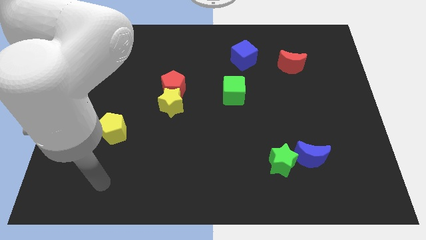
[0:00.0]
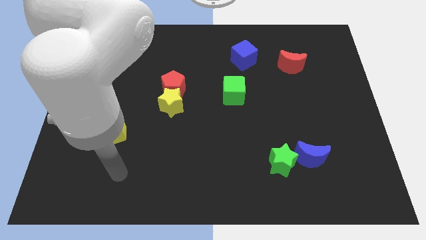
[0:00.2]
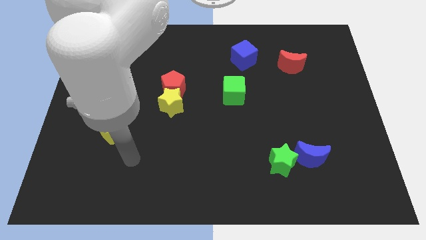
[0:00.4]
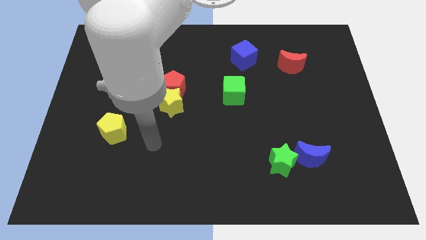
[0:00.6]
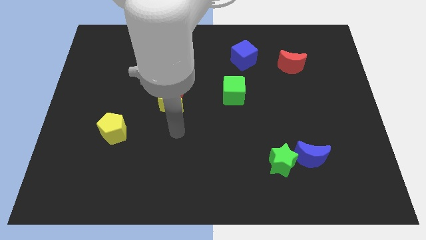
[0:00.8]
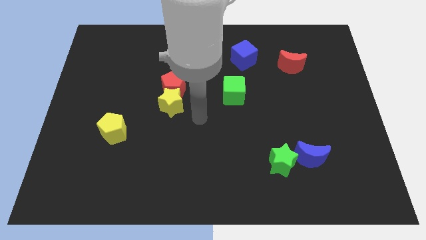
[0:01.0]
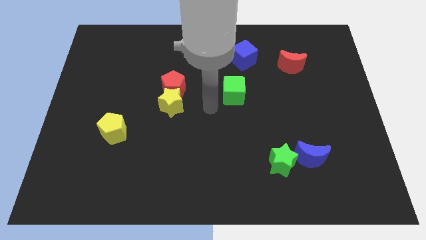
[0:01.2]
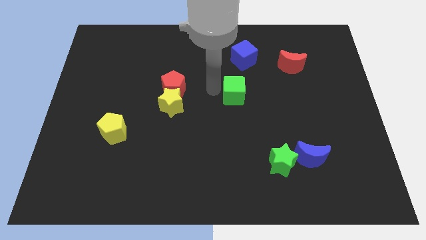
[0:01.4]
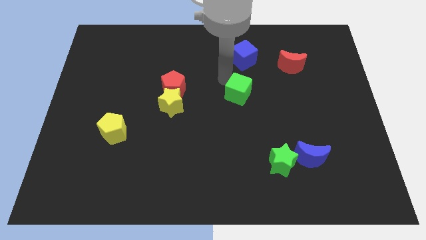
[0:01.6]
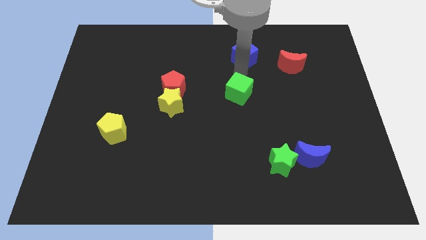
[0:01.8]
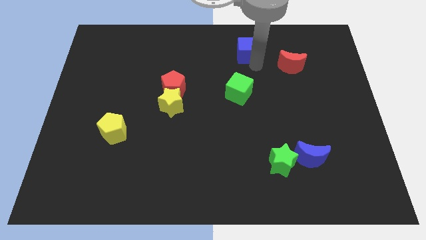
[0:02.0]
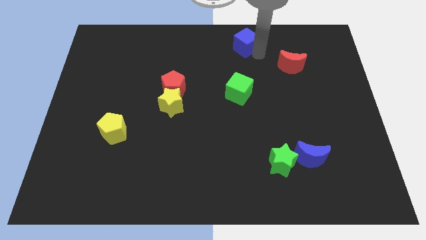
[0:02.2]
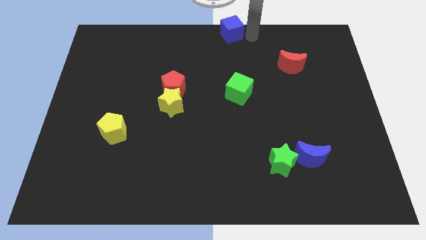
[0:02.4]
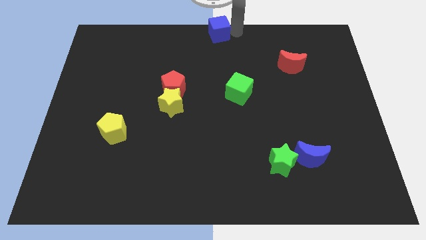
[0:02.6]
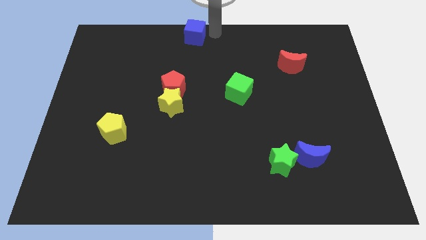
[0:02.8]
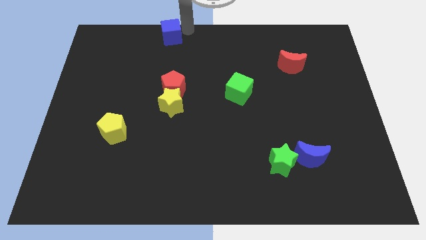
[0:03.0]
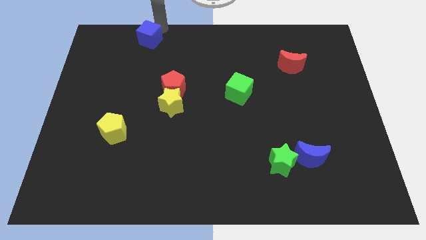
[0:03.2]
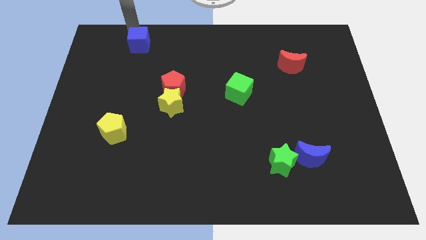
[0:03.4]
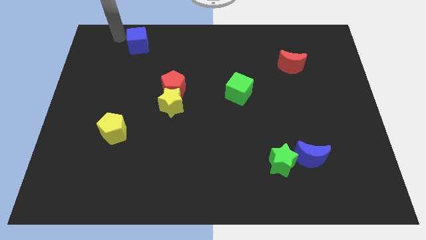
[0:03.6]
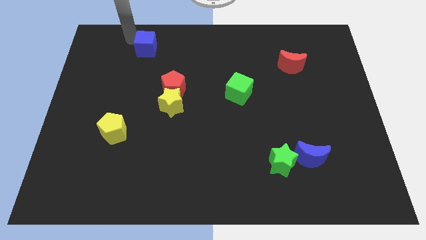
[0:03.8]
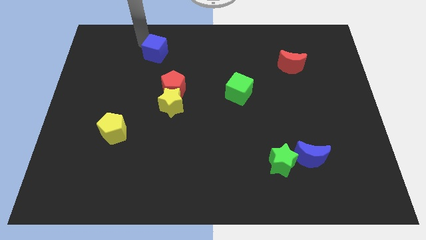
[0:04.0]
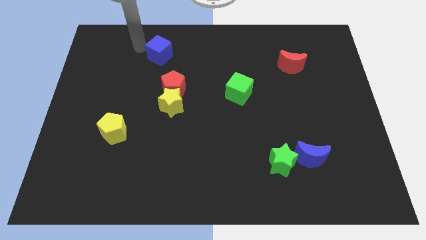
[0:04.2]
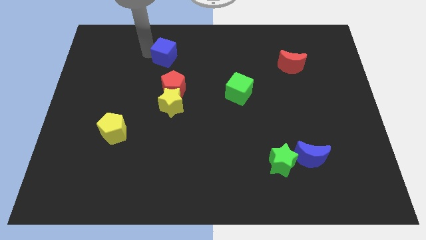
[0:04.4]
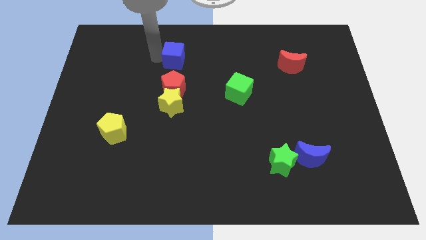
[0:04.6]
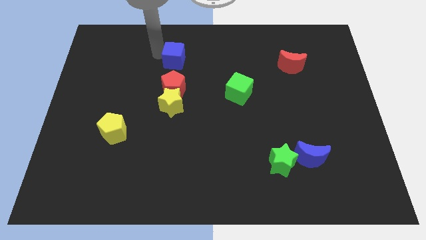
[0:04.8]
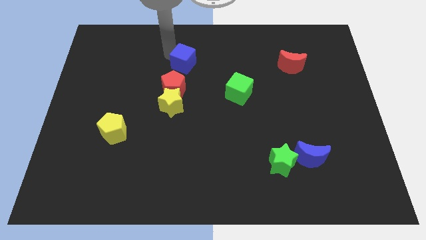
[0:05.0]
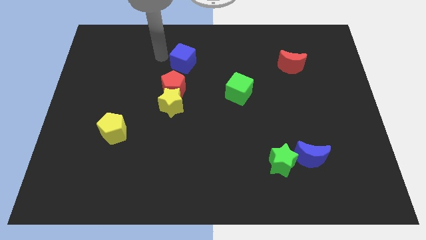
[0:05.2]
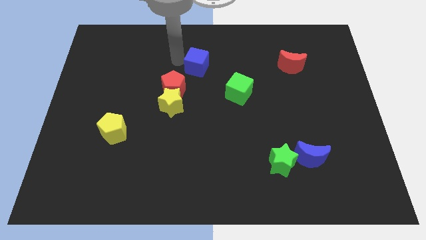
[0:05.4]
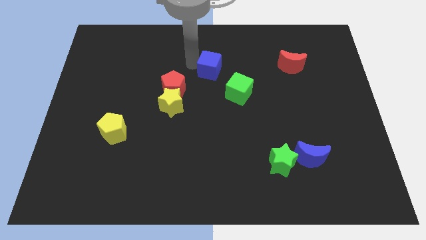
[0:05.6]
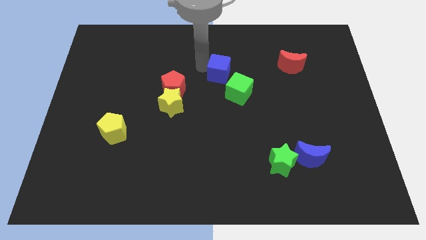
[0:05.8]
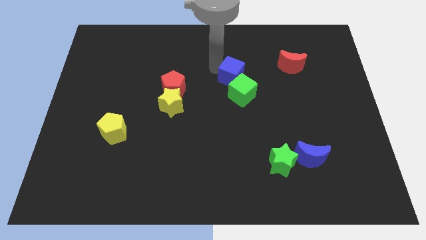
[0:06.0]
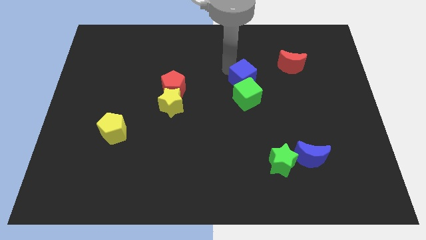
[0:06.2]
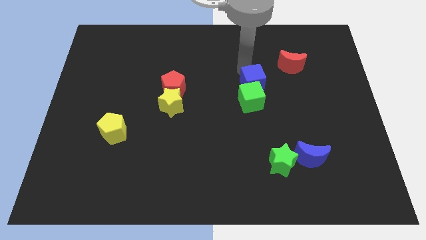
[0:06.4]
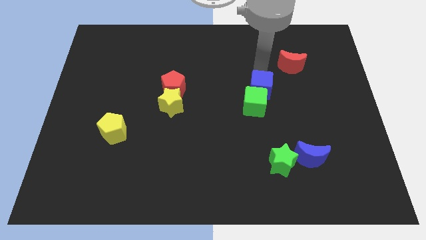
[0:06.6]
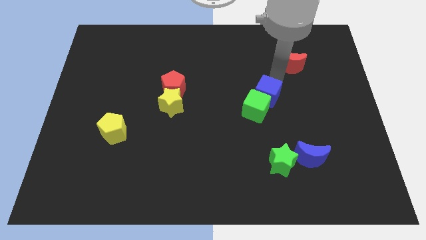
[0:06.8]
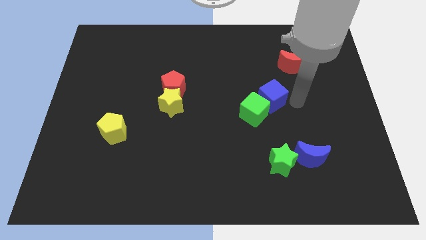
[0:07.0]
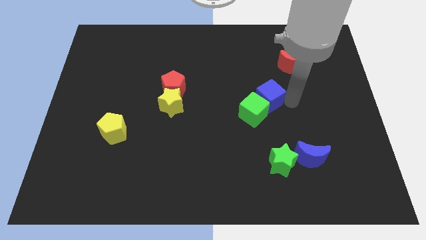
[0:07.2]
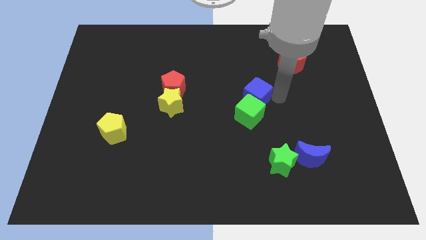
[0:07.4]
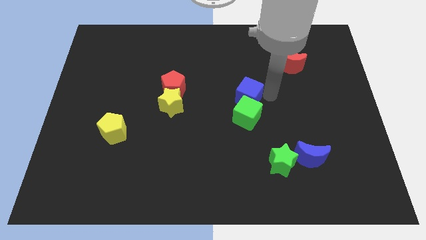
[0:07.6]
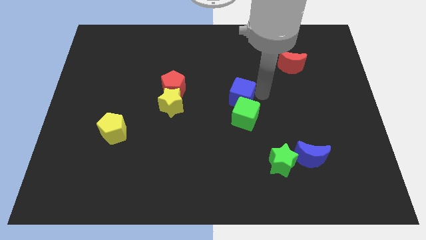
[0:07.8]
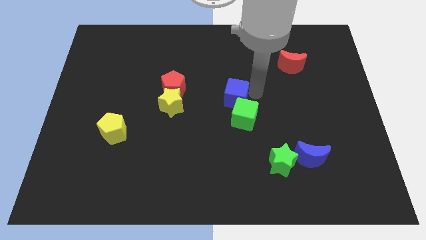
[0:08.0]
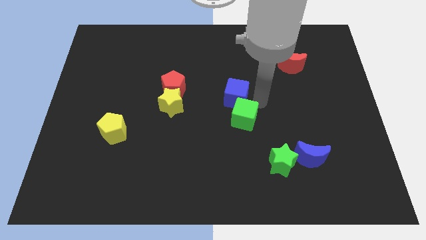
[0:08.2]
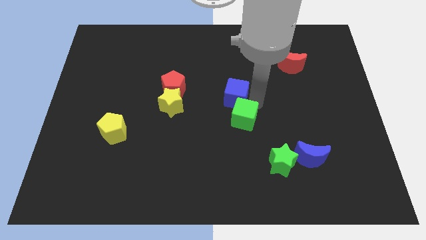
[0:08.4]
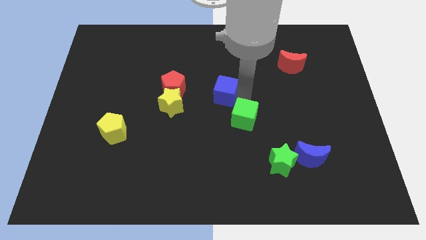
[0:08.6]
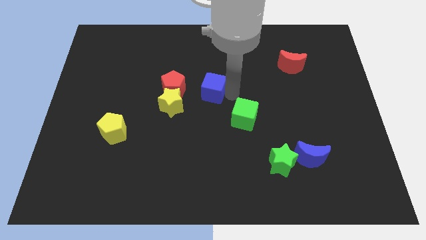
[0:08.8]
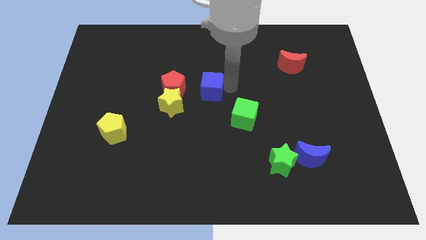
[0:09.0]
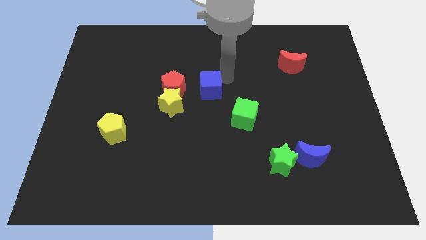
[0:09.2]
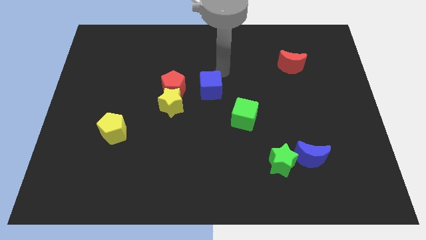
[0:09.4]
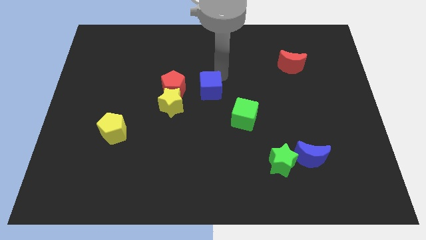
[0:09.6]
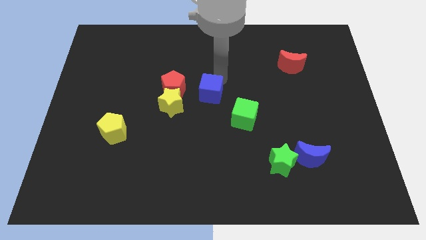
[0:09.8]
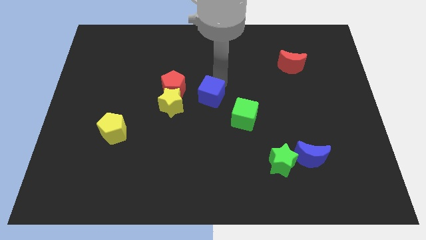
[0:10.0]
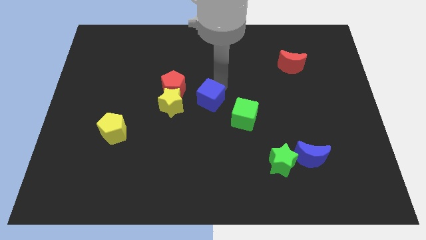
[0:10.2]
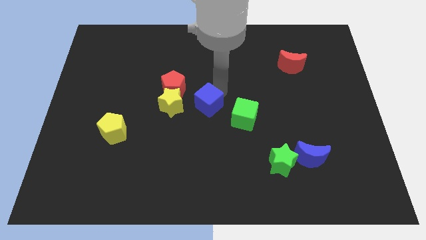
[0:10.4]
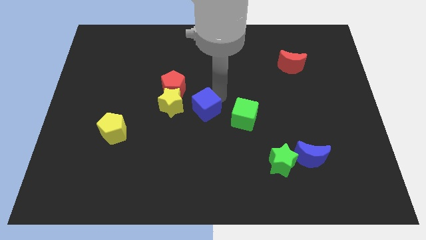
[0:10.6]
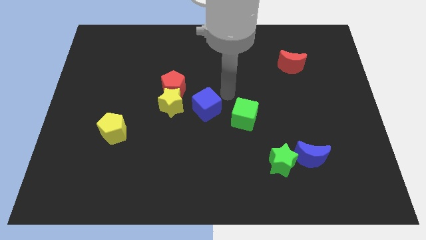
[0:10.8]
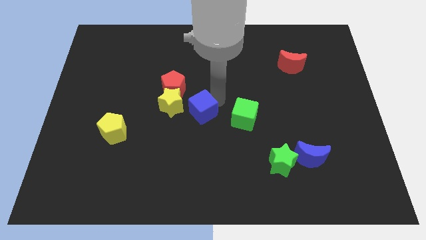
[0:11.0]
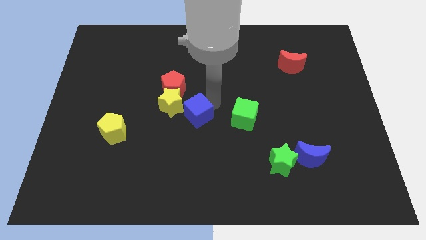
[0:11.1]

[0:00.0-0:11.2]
push the blue cube diagonally downwards and to the left

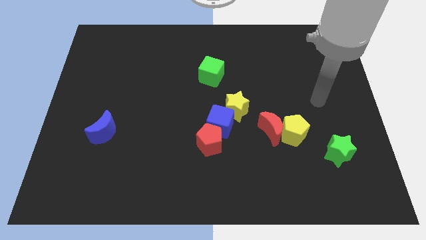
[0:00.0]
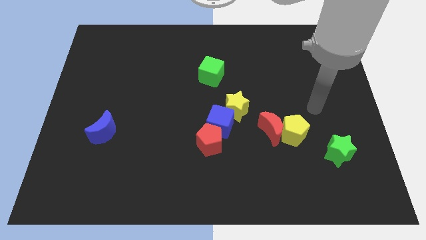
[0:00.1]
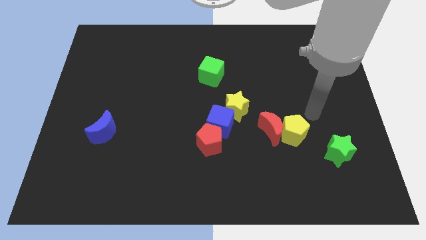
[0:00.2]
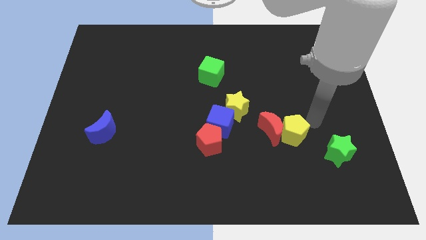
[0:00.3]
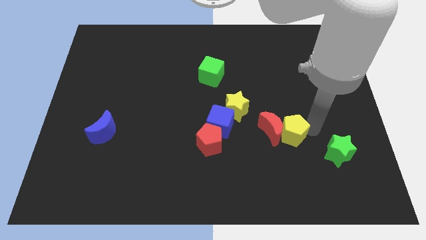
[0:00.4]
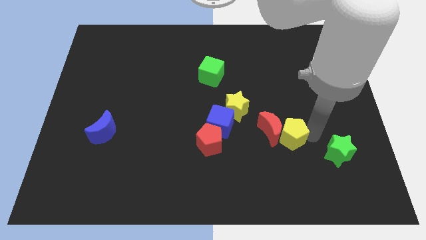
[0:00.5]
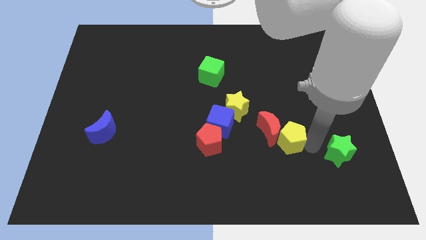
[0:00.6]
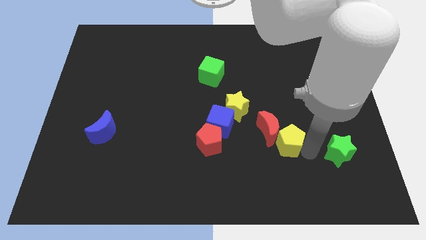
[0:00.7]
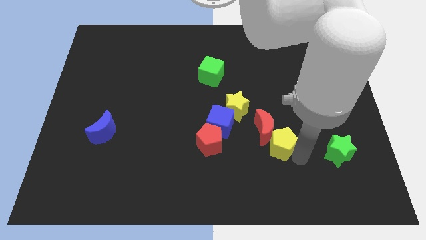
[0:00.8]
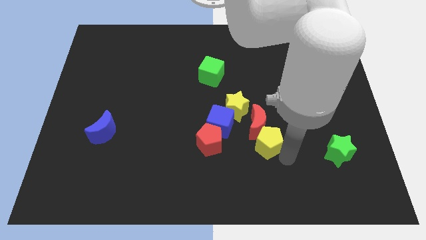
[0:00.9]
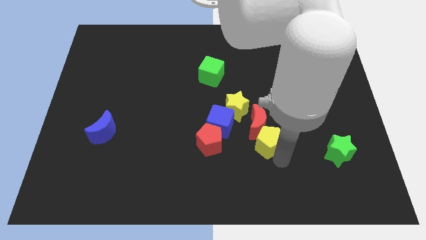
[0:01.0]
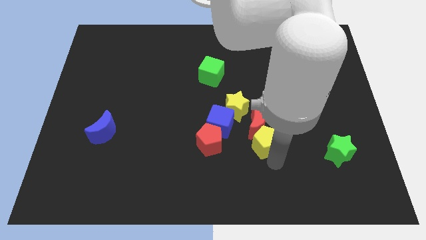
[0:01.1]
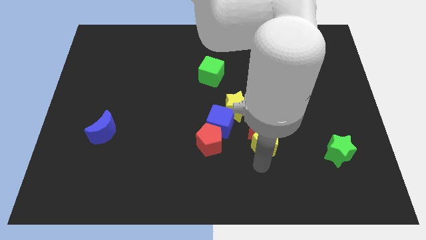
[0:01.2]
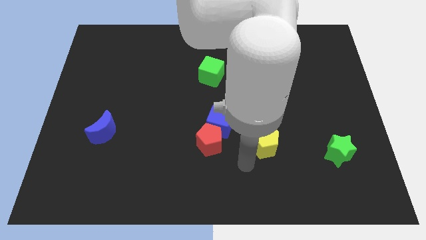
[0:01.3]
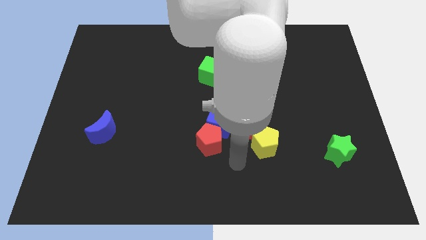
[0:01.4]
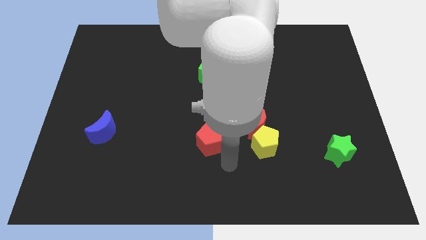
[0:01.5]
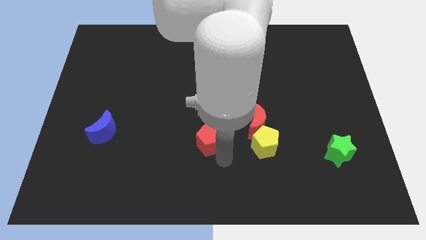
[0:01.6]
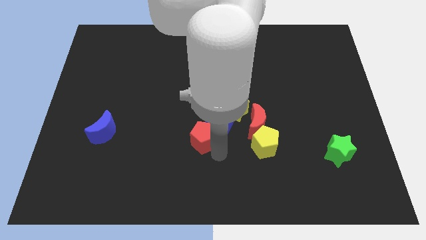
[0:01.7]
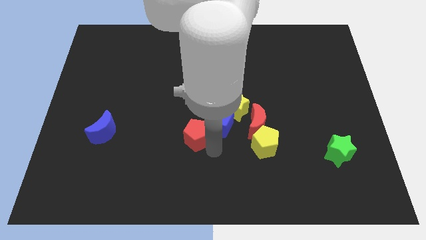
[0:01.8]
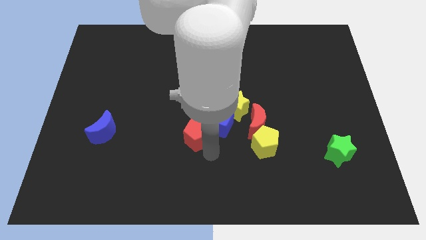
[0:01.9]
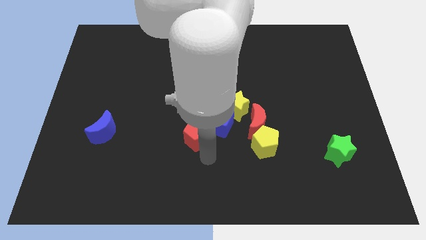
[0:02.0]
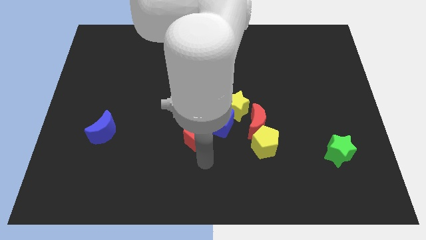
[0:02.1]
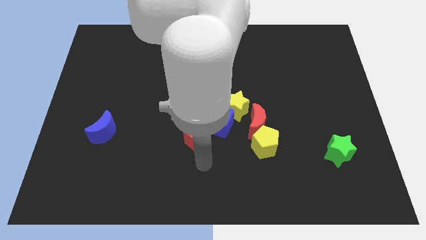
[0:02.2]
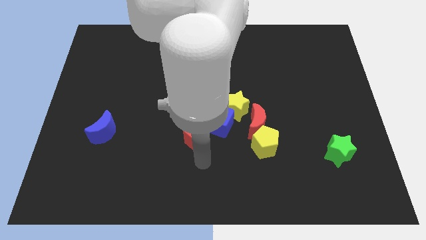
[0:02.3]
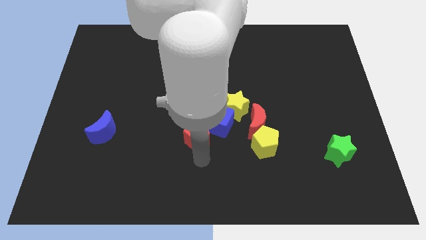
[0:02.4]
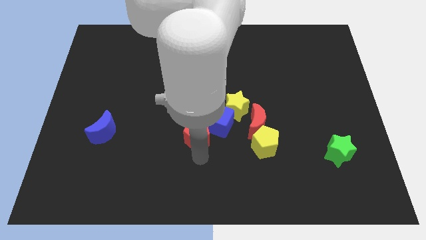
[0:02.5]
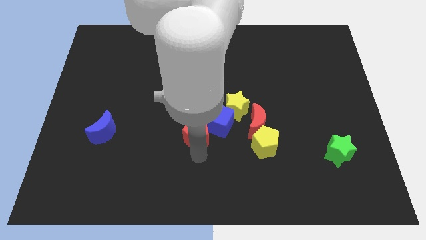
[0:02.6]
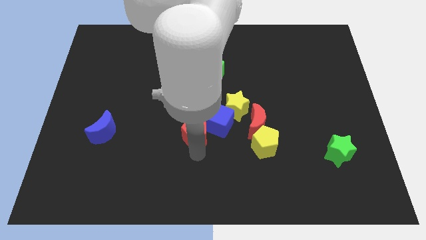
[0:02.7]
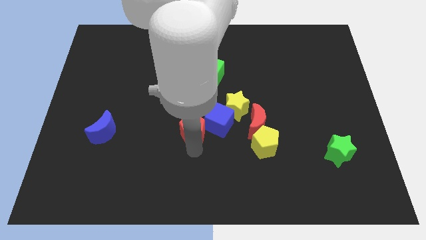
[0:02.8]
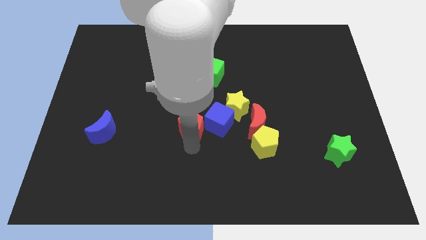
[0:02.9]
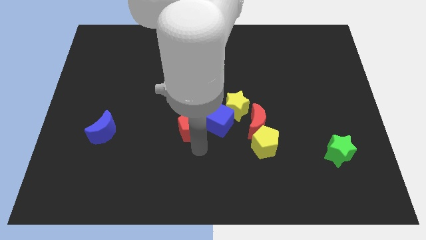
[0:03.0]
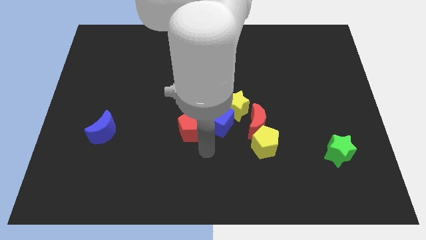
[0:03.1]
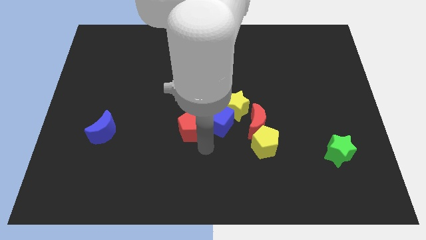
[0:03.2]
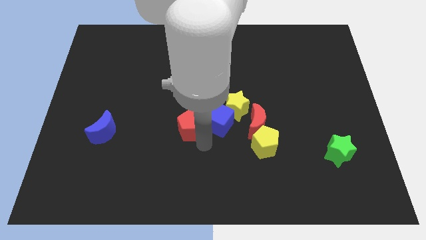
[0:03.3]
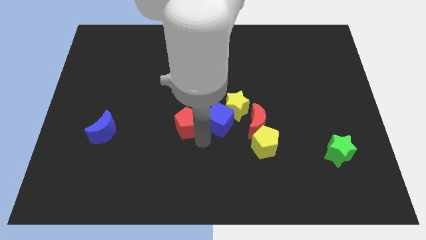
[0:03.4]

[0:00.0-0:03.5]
move the red pentagon a little up and left diagonally
